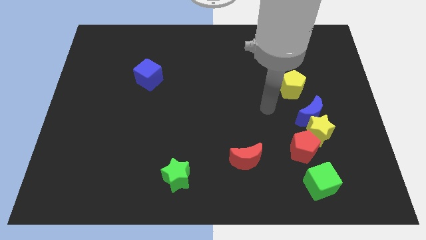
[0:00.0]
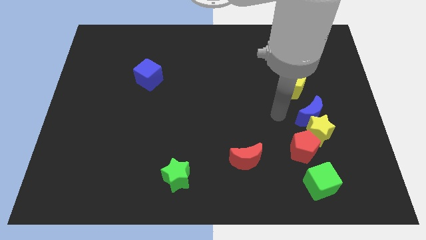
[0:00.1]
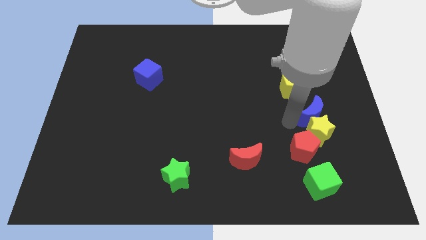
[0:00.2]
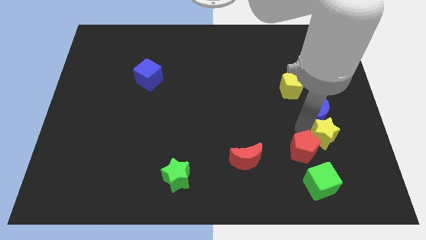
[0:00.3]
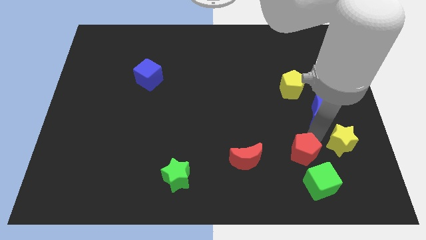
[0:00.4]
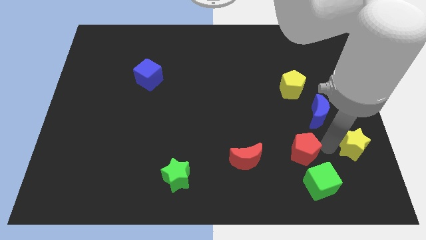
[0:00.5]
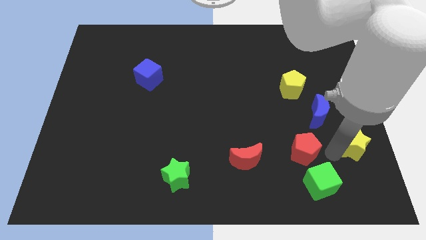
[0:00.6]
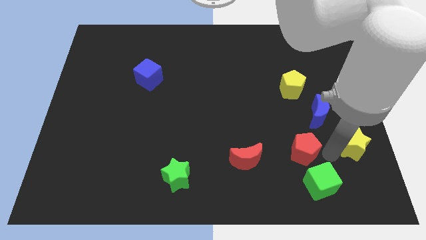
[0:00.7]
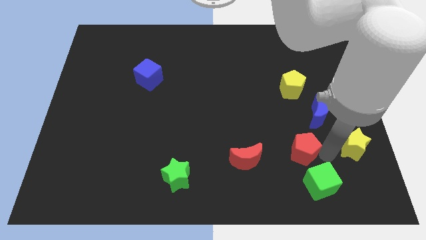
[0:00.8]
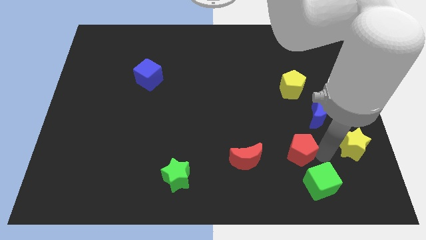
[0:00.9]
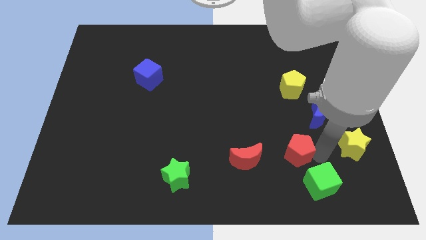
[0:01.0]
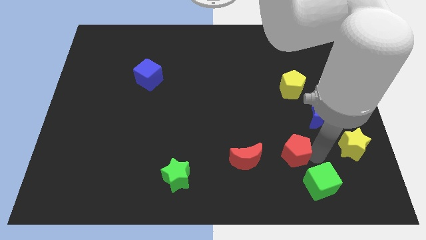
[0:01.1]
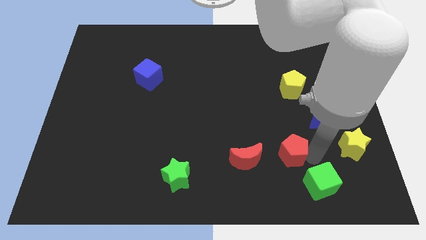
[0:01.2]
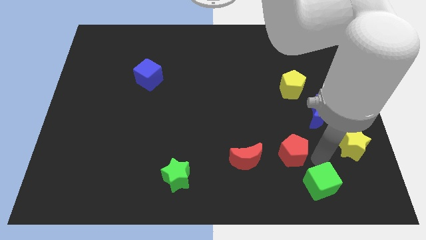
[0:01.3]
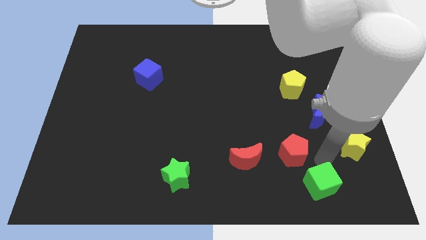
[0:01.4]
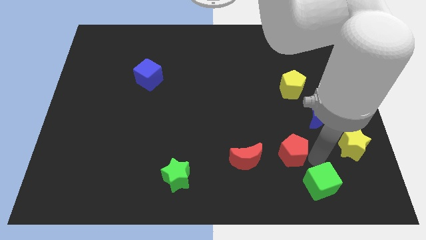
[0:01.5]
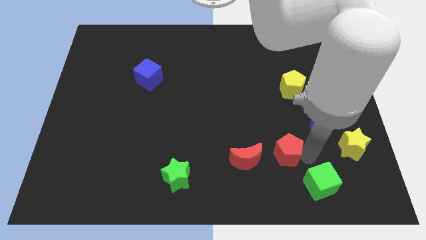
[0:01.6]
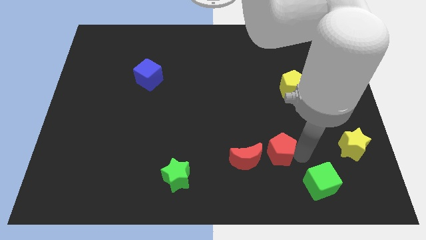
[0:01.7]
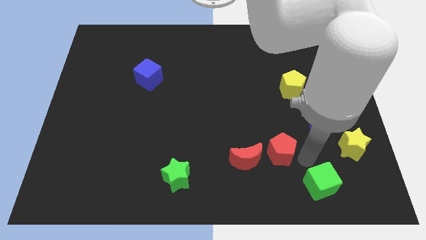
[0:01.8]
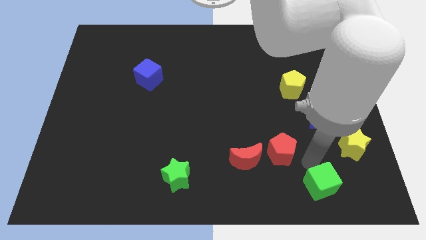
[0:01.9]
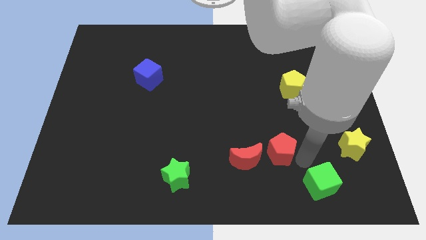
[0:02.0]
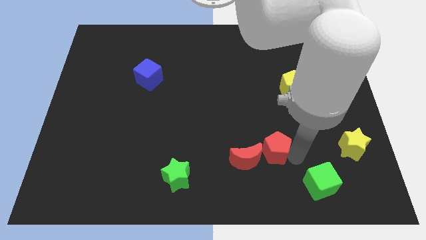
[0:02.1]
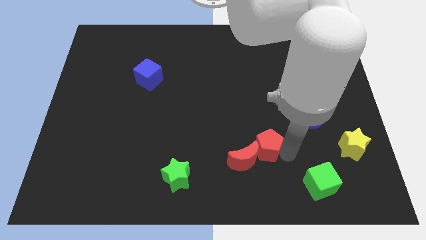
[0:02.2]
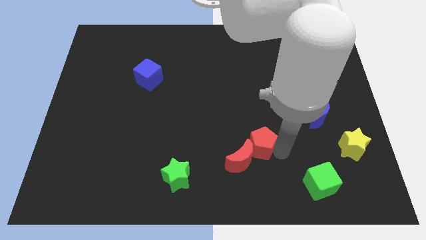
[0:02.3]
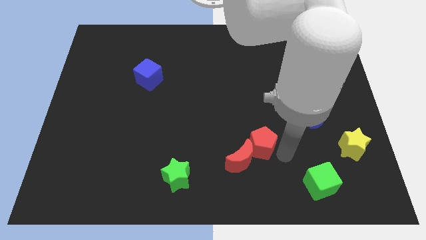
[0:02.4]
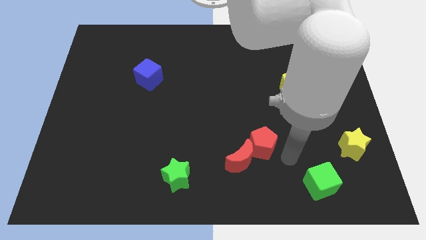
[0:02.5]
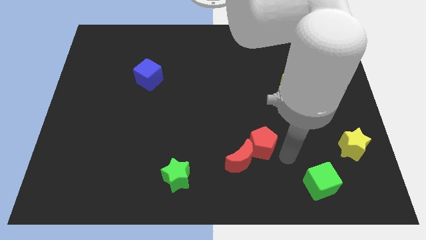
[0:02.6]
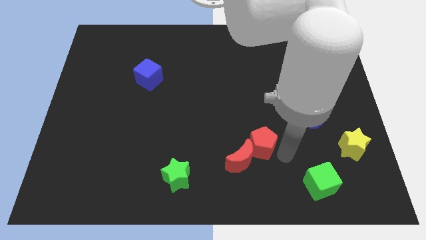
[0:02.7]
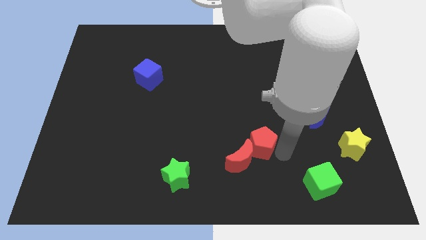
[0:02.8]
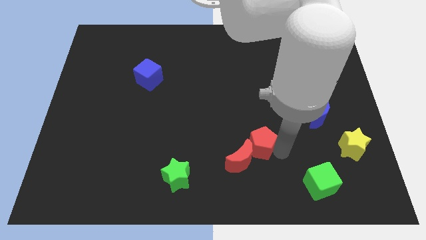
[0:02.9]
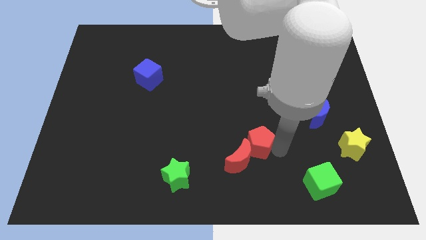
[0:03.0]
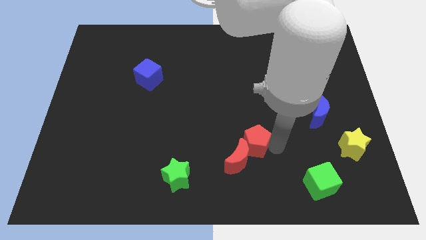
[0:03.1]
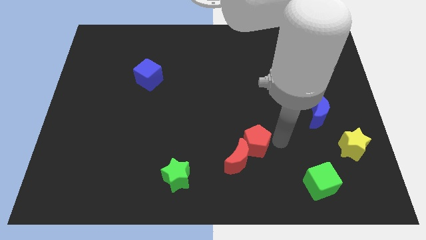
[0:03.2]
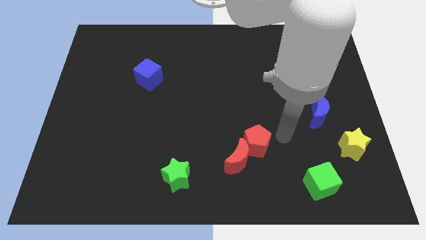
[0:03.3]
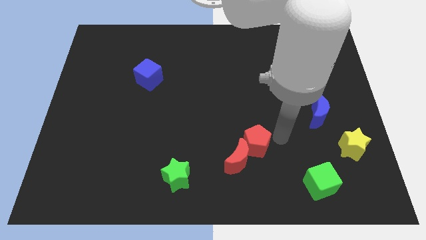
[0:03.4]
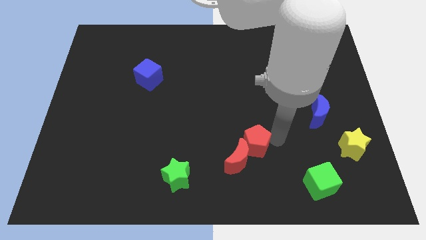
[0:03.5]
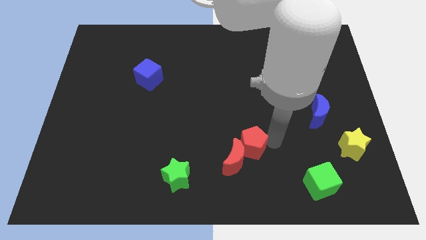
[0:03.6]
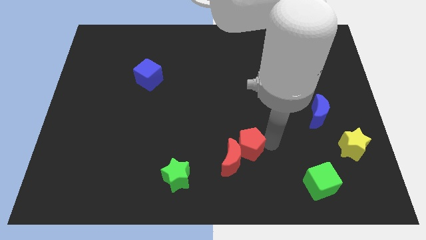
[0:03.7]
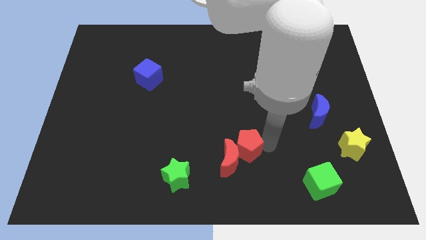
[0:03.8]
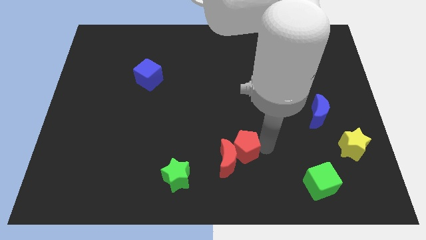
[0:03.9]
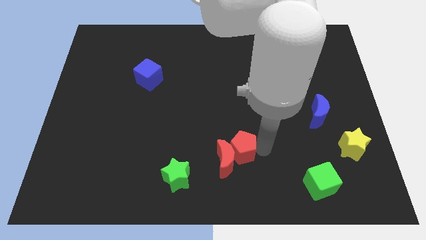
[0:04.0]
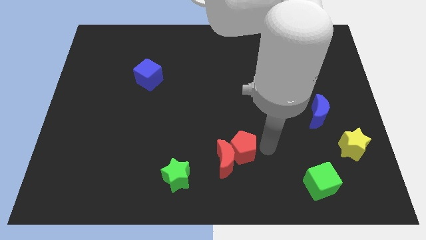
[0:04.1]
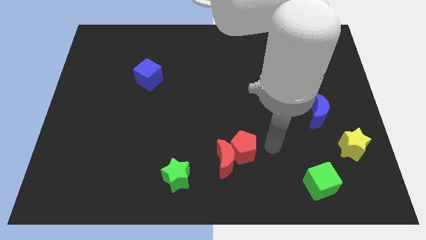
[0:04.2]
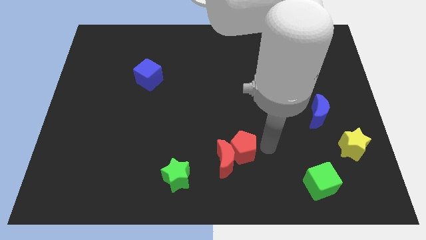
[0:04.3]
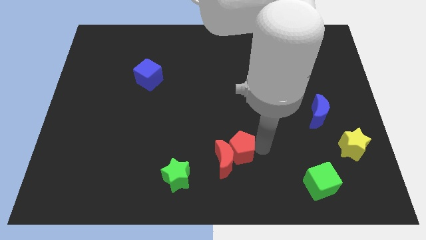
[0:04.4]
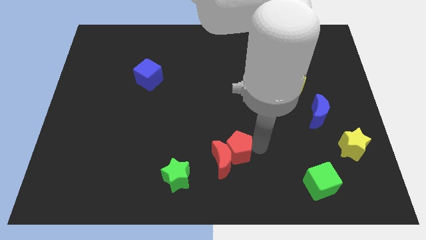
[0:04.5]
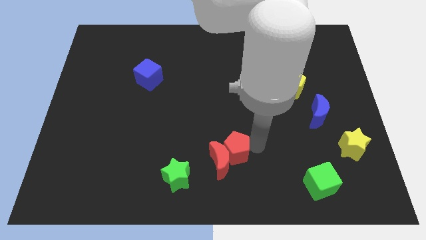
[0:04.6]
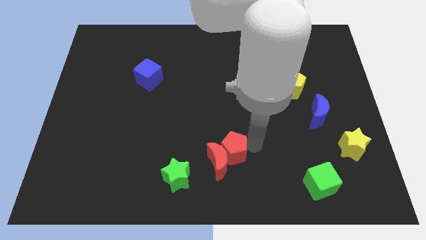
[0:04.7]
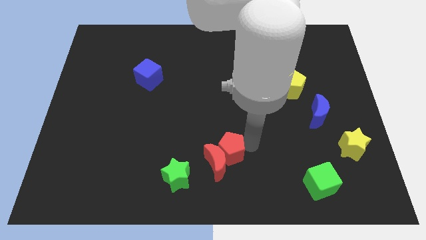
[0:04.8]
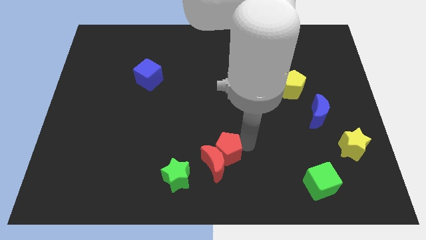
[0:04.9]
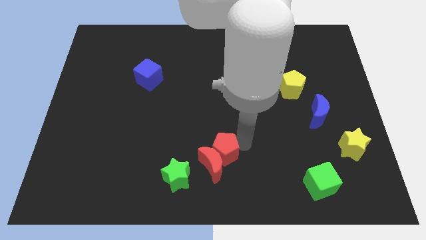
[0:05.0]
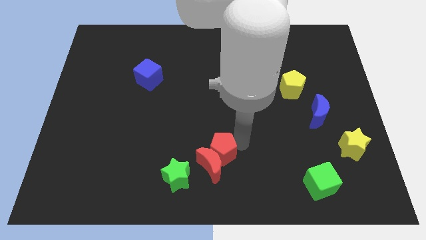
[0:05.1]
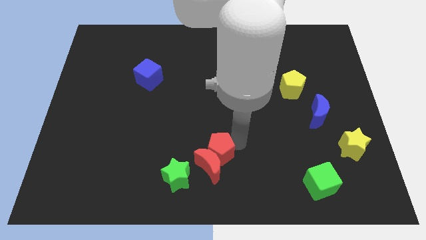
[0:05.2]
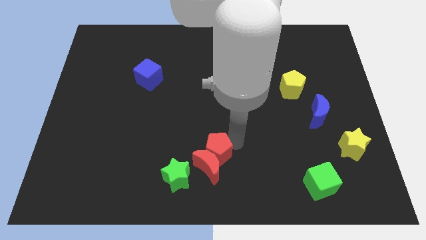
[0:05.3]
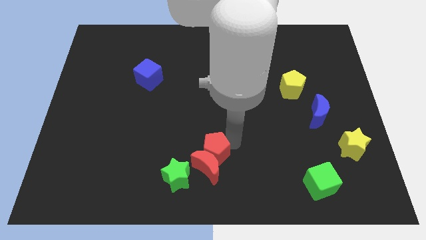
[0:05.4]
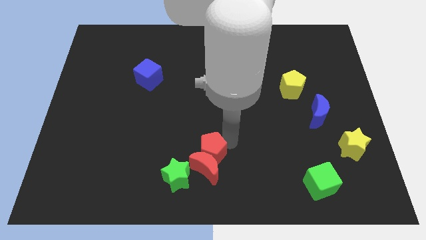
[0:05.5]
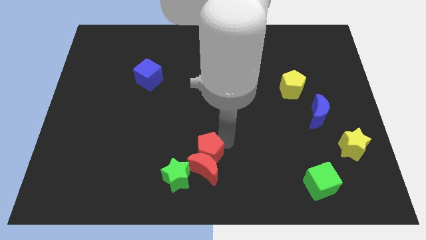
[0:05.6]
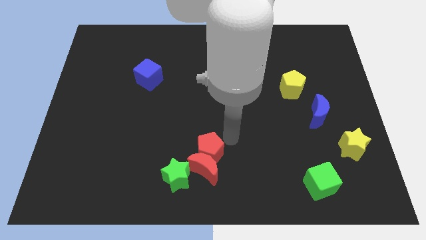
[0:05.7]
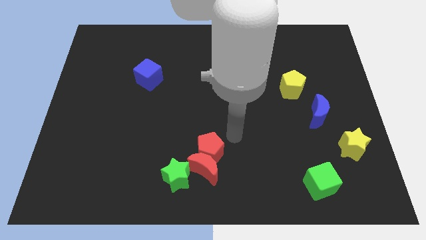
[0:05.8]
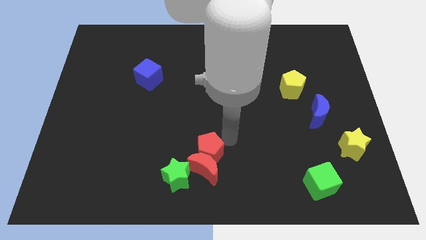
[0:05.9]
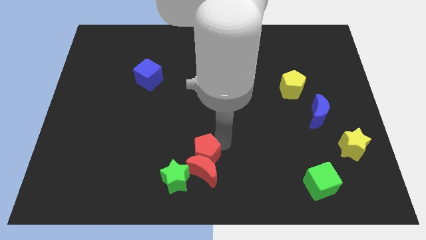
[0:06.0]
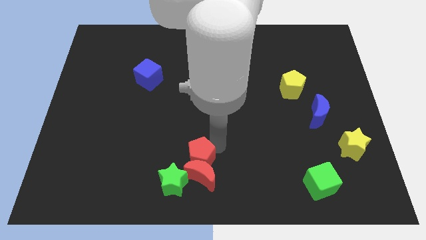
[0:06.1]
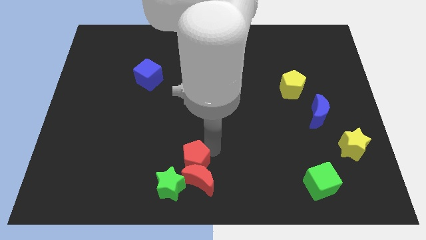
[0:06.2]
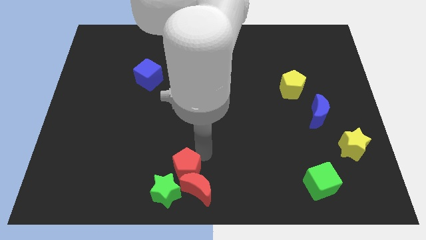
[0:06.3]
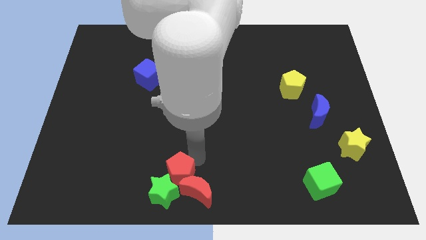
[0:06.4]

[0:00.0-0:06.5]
move the red pentagon to the green star
